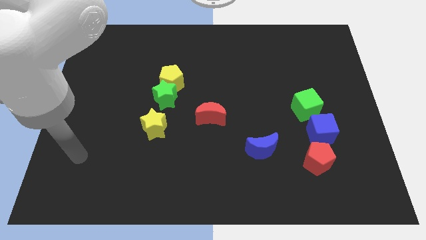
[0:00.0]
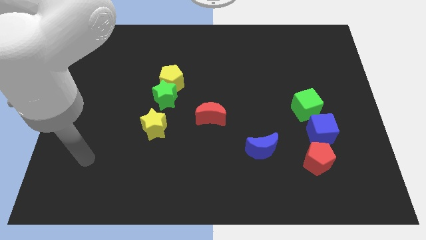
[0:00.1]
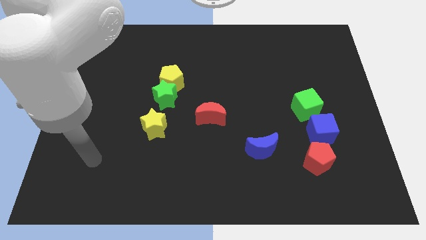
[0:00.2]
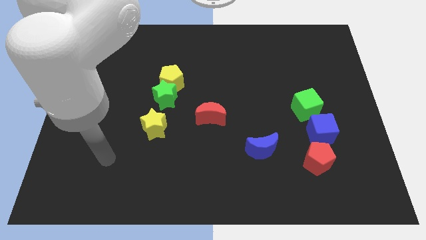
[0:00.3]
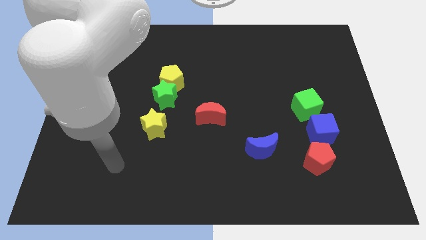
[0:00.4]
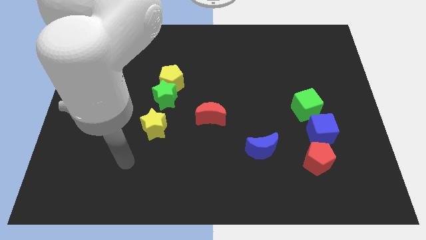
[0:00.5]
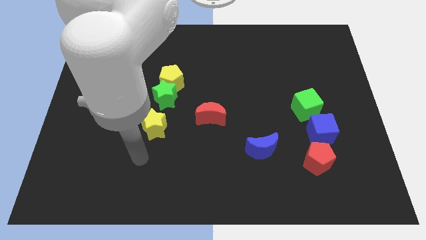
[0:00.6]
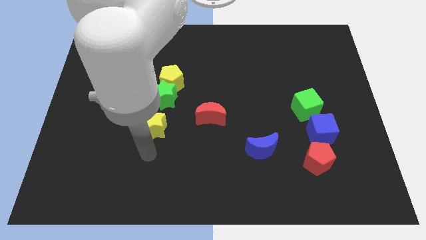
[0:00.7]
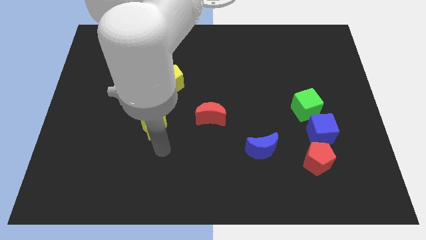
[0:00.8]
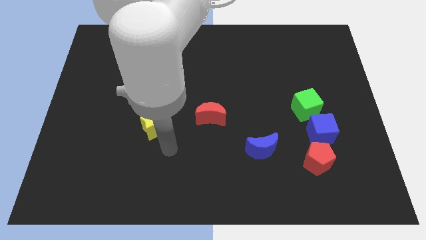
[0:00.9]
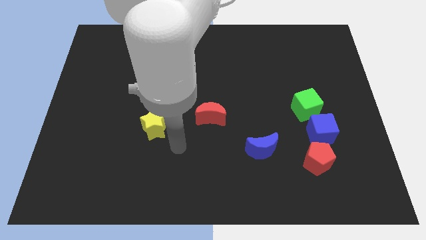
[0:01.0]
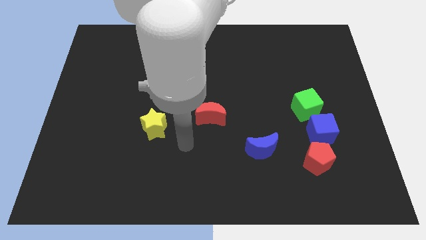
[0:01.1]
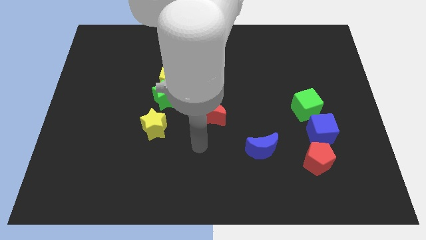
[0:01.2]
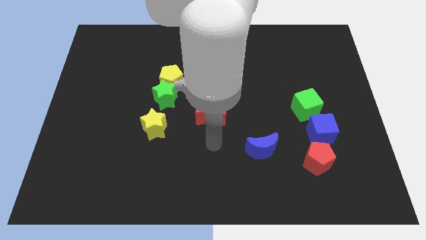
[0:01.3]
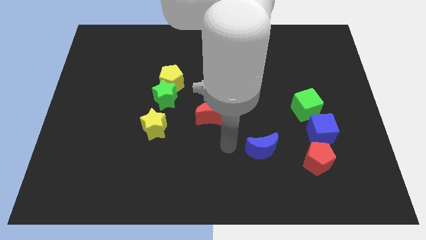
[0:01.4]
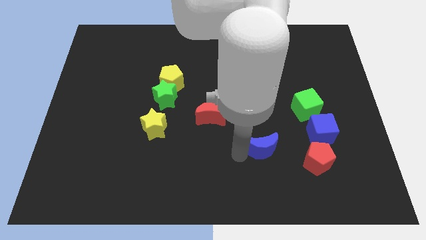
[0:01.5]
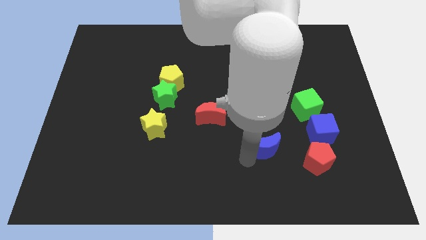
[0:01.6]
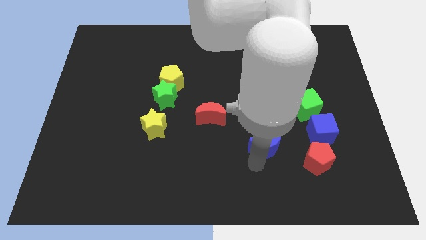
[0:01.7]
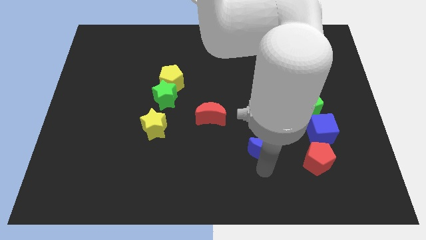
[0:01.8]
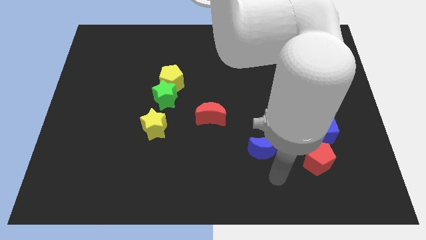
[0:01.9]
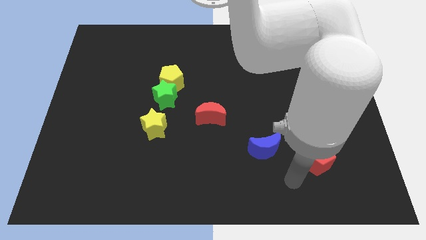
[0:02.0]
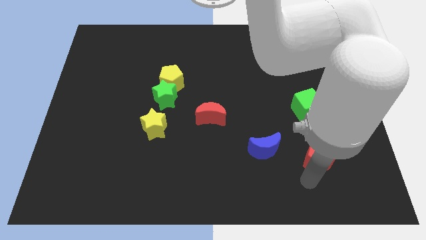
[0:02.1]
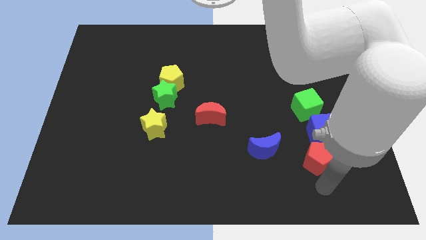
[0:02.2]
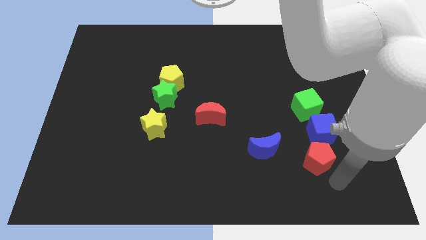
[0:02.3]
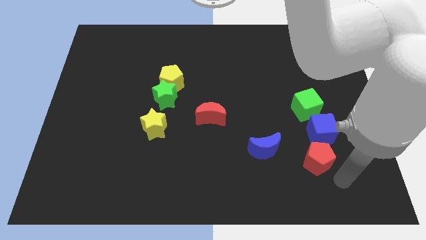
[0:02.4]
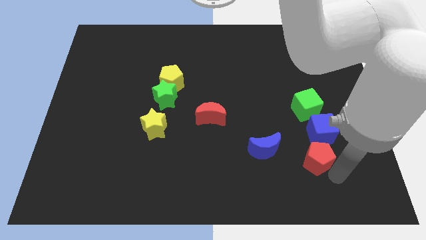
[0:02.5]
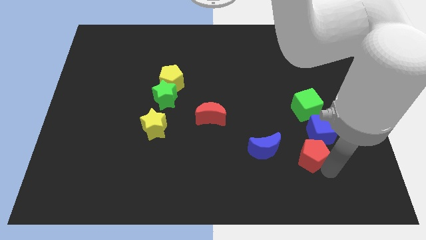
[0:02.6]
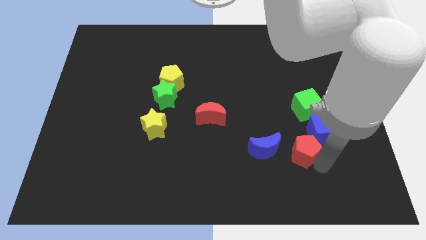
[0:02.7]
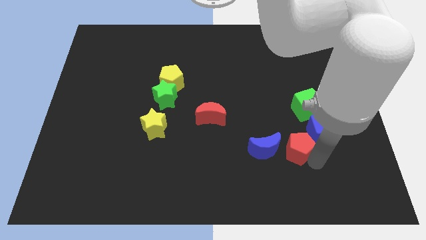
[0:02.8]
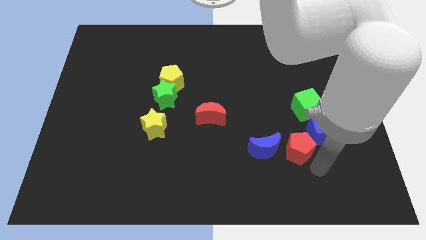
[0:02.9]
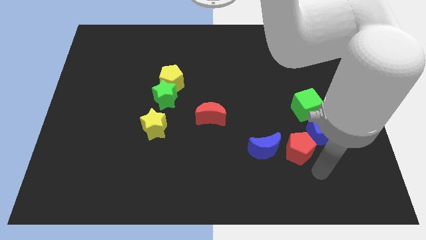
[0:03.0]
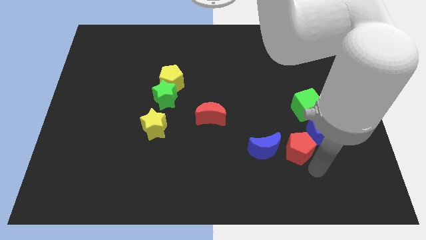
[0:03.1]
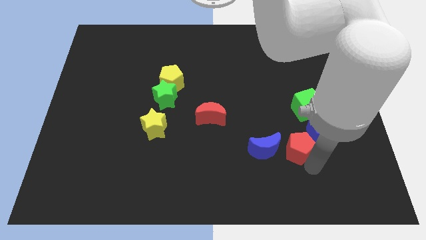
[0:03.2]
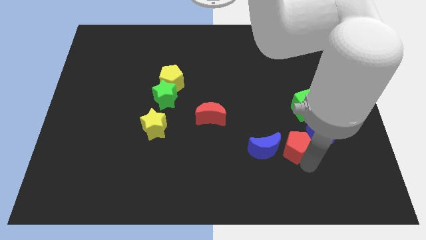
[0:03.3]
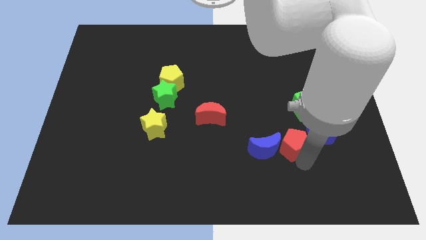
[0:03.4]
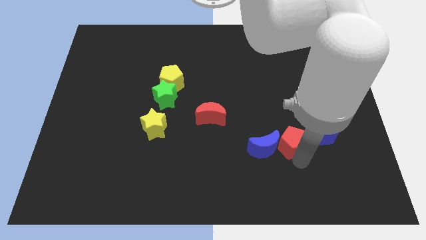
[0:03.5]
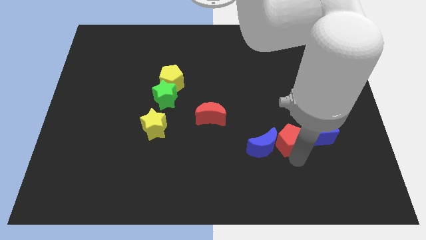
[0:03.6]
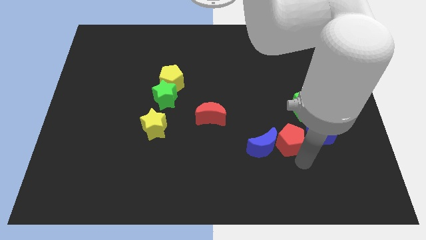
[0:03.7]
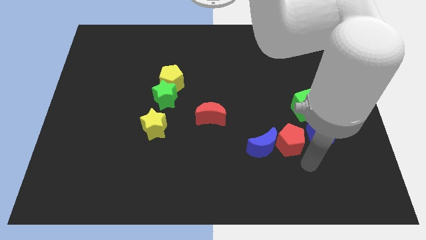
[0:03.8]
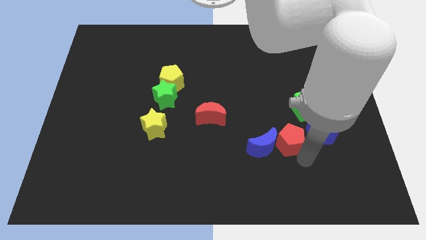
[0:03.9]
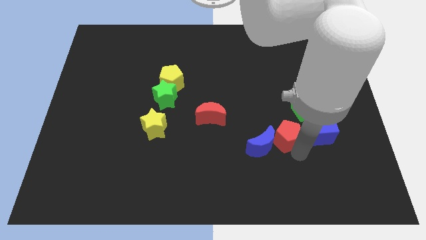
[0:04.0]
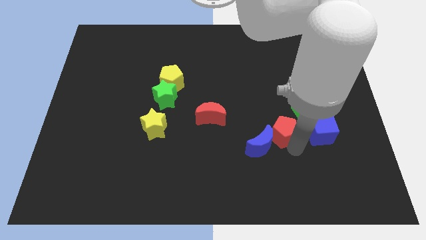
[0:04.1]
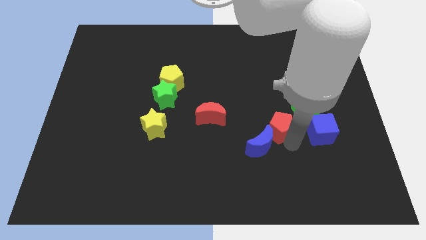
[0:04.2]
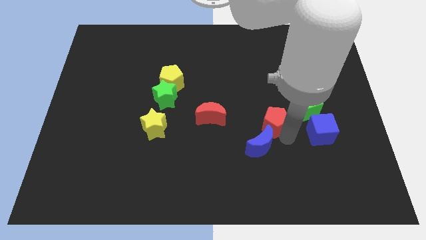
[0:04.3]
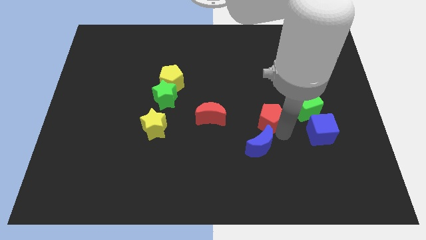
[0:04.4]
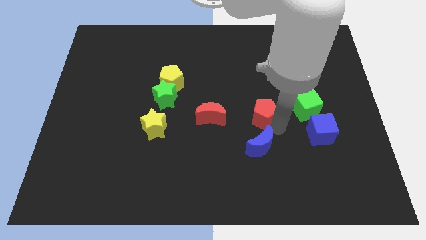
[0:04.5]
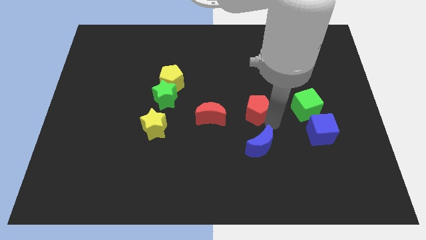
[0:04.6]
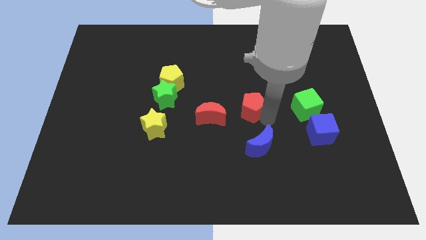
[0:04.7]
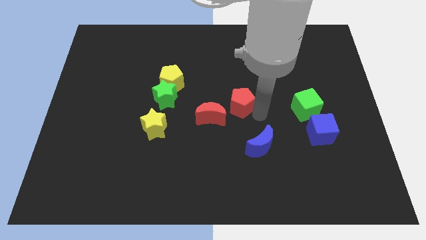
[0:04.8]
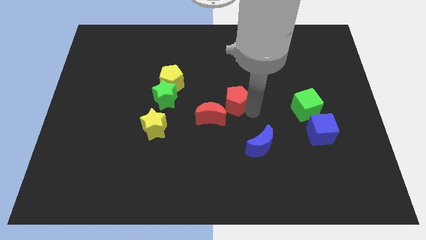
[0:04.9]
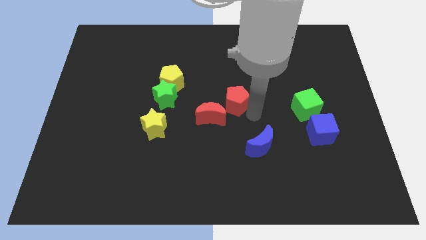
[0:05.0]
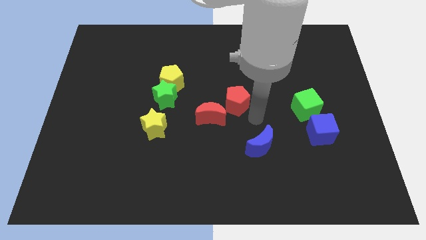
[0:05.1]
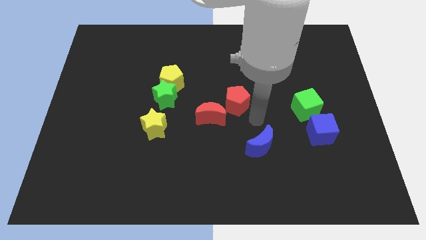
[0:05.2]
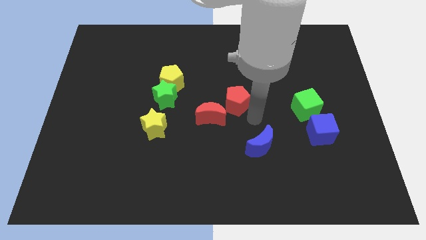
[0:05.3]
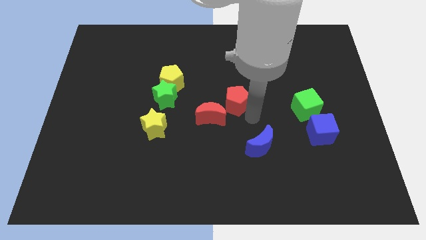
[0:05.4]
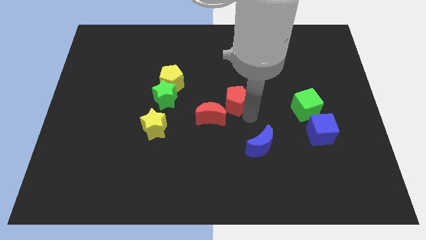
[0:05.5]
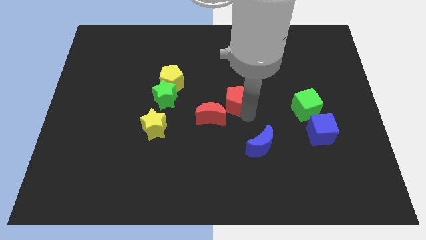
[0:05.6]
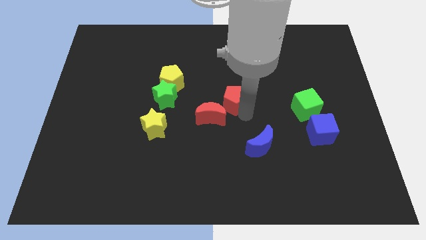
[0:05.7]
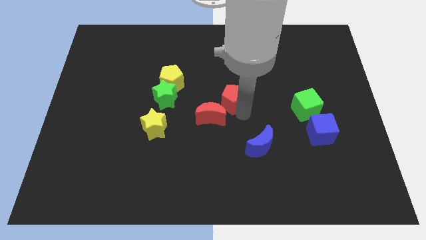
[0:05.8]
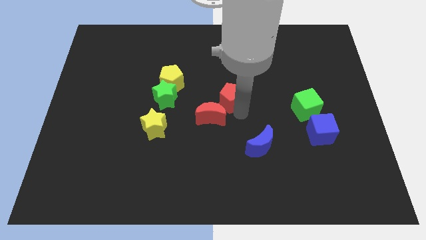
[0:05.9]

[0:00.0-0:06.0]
move the red pentagon to the top side of the red moon
